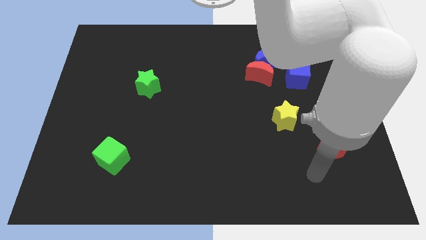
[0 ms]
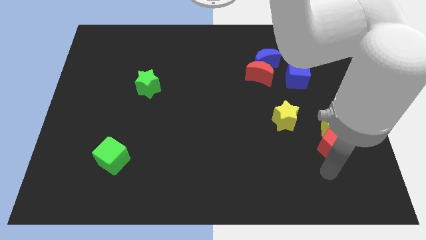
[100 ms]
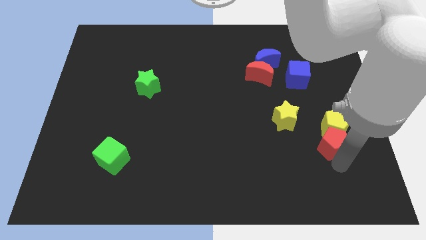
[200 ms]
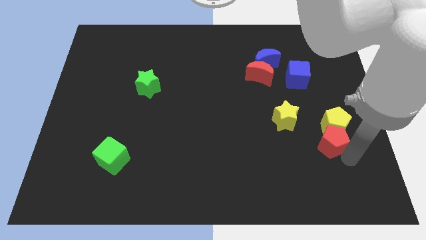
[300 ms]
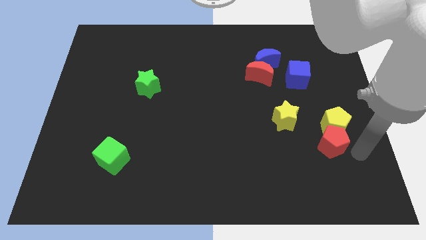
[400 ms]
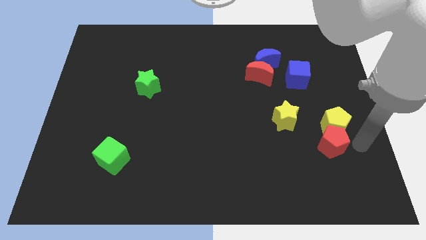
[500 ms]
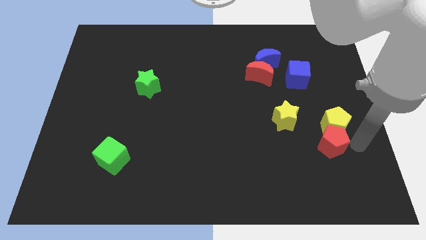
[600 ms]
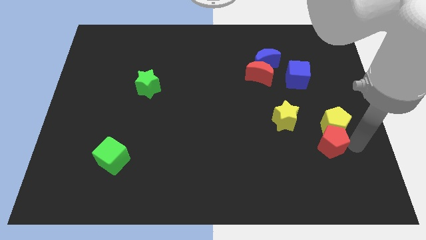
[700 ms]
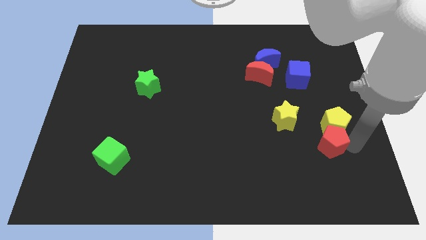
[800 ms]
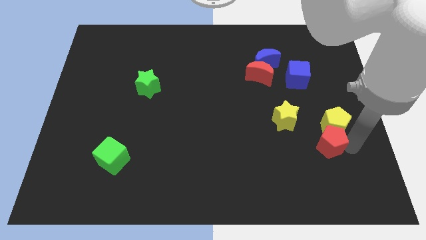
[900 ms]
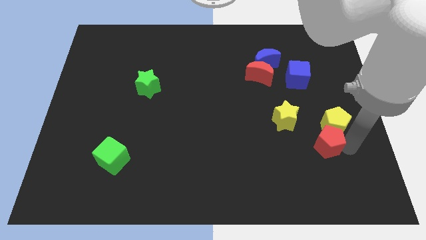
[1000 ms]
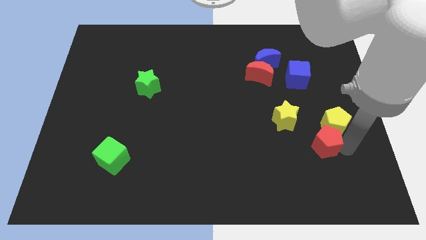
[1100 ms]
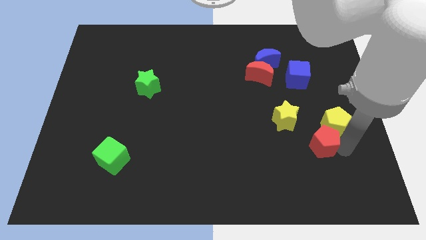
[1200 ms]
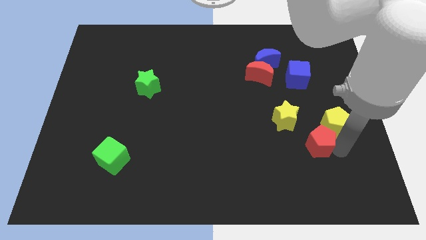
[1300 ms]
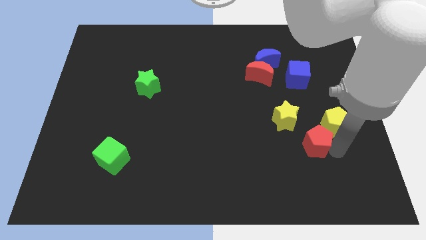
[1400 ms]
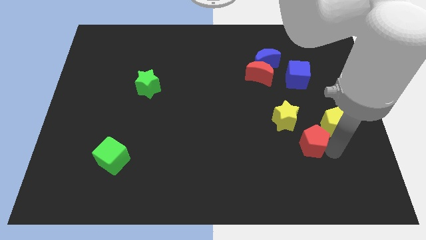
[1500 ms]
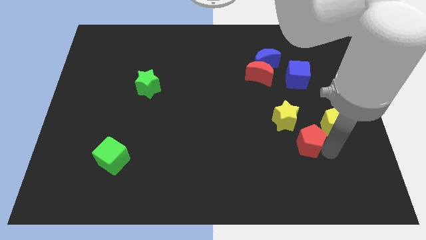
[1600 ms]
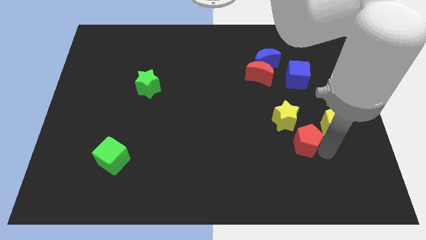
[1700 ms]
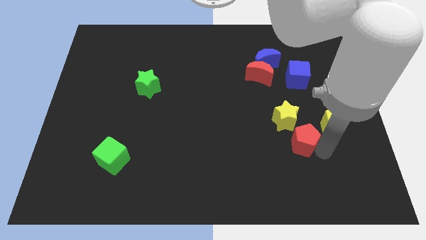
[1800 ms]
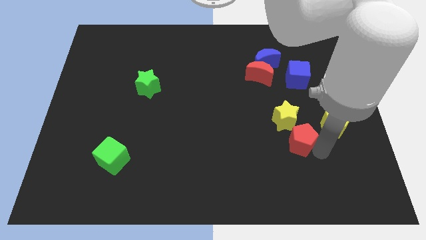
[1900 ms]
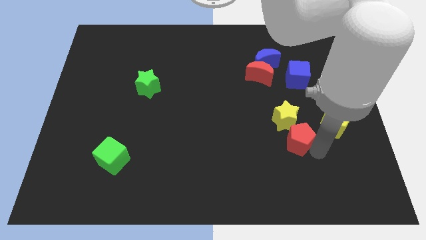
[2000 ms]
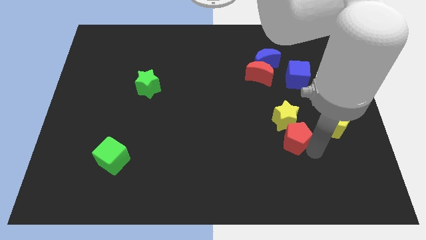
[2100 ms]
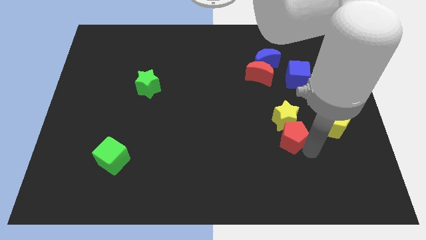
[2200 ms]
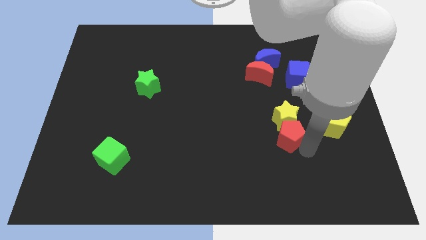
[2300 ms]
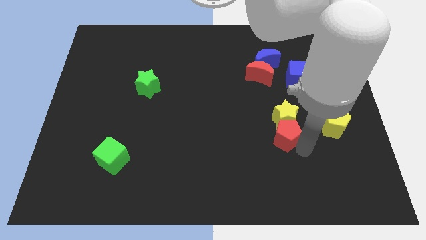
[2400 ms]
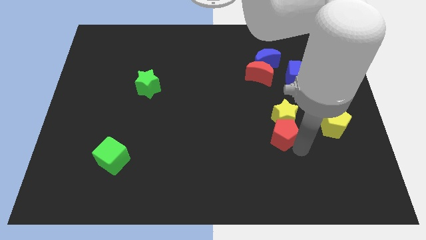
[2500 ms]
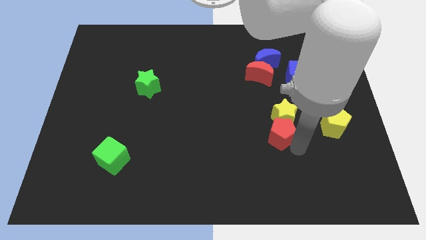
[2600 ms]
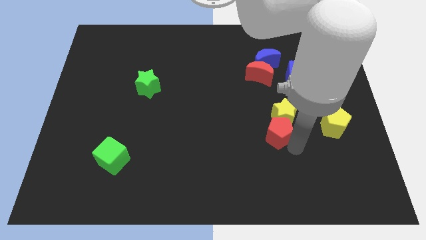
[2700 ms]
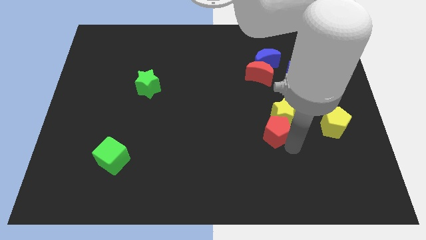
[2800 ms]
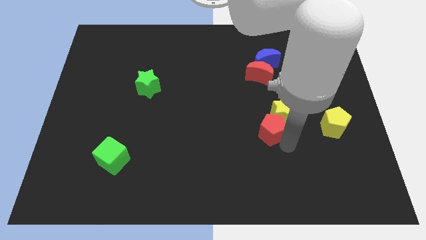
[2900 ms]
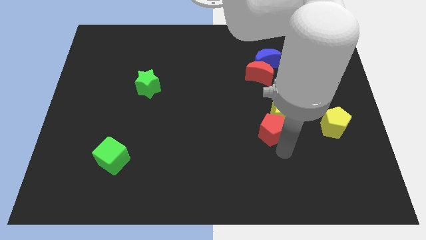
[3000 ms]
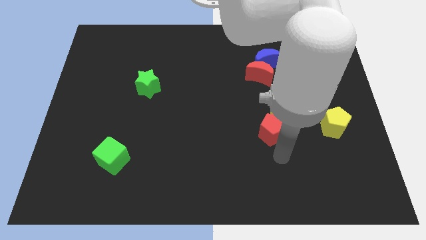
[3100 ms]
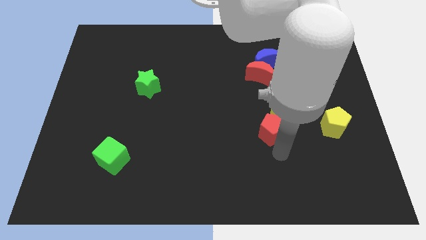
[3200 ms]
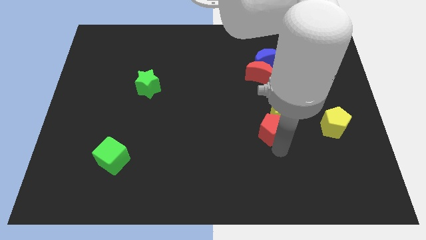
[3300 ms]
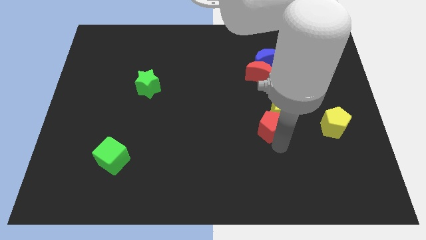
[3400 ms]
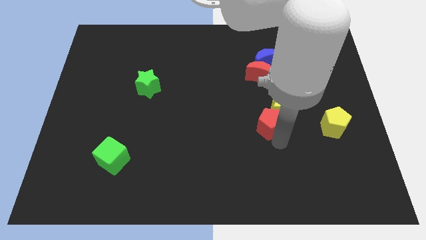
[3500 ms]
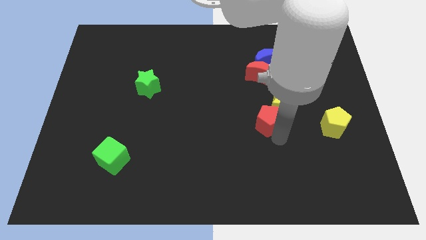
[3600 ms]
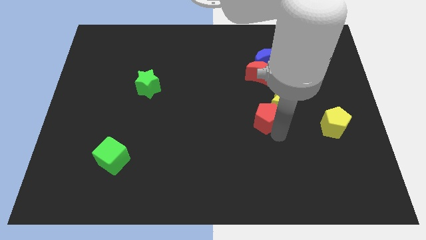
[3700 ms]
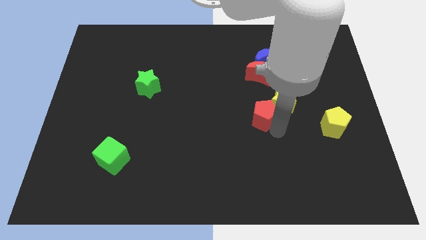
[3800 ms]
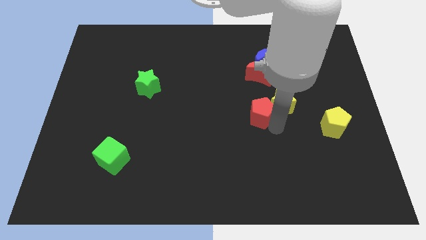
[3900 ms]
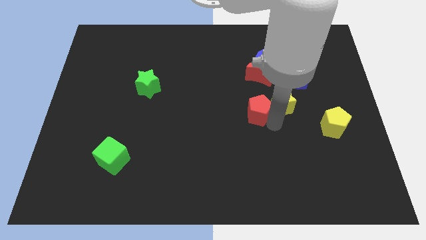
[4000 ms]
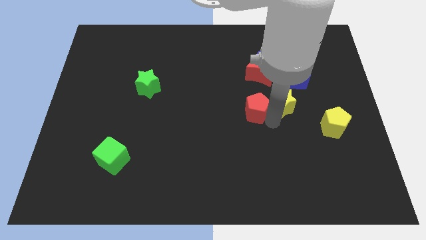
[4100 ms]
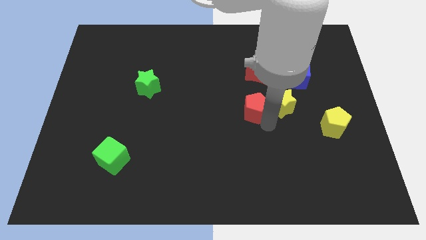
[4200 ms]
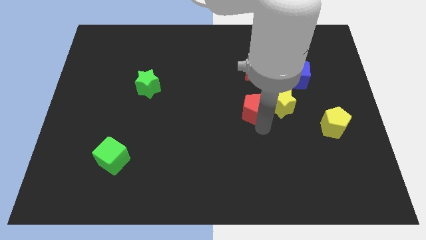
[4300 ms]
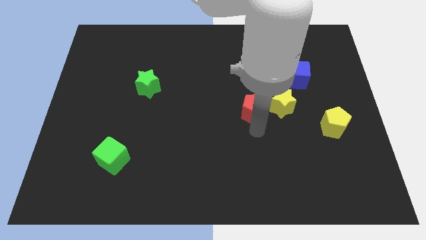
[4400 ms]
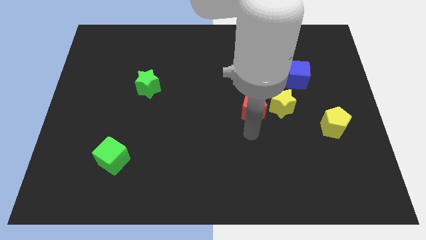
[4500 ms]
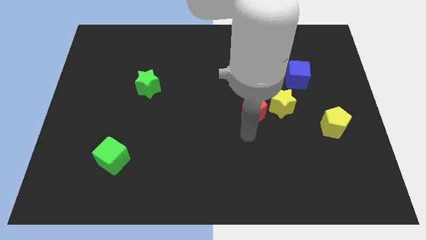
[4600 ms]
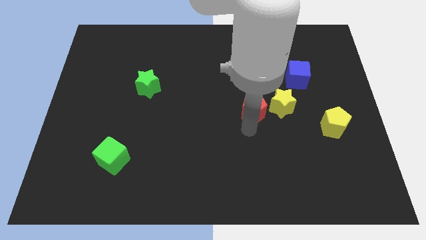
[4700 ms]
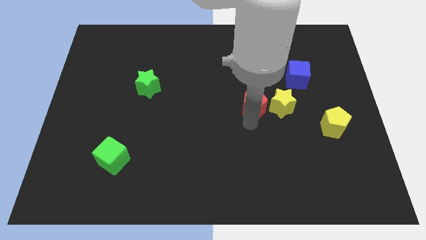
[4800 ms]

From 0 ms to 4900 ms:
move the red pentagon to the top left of the yellow star

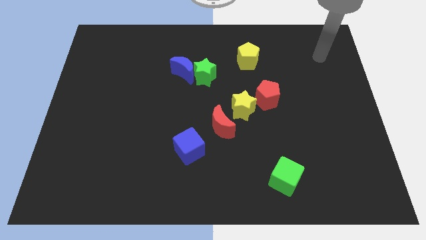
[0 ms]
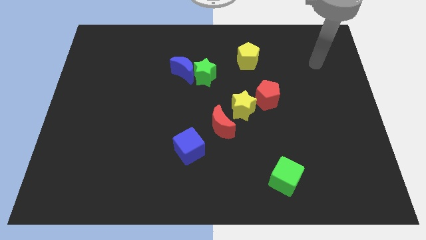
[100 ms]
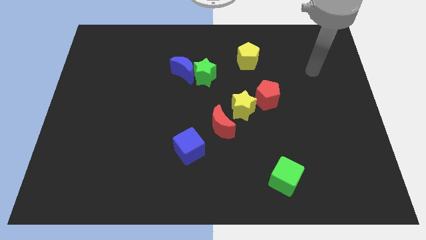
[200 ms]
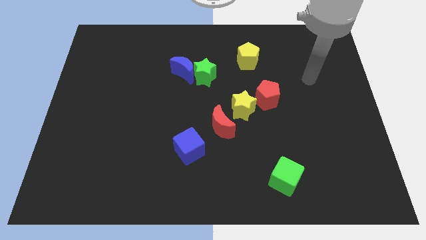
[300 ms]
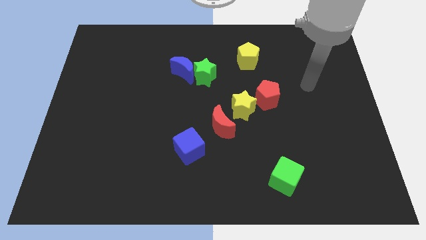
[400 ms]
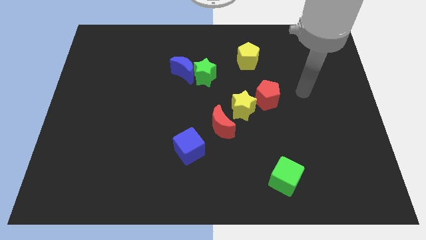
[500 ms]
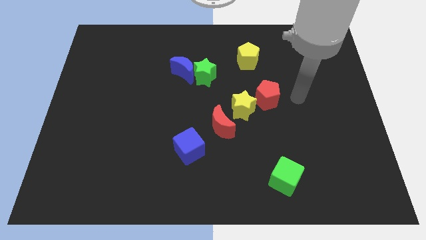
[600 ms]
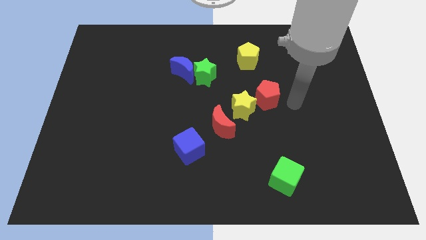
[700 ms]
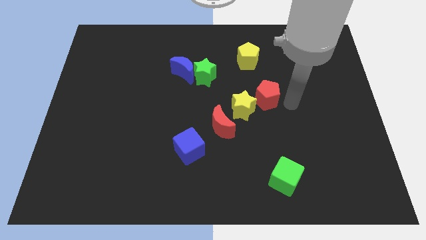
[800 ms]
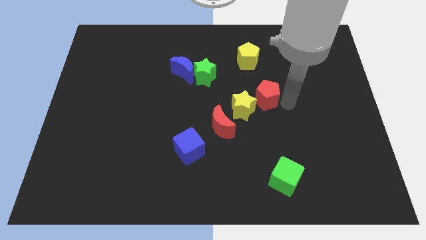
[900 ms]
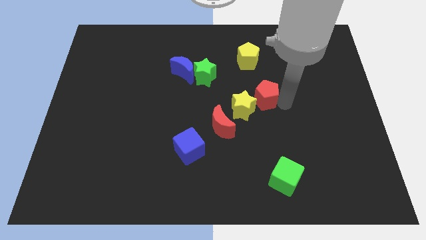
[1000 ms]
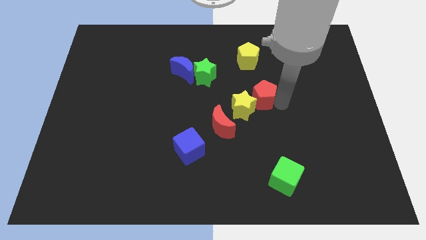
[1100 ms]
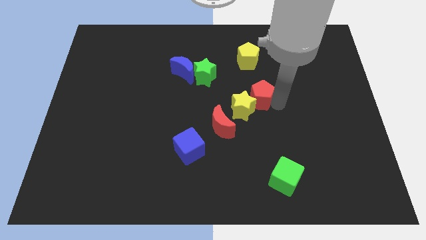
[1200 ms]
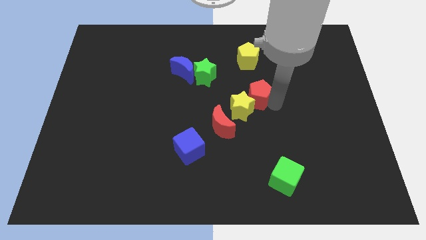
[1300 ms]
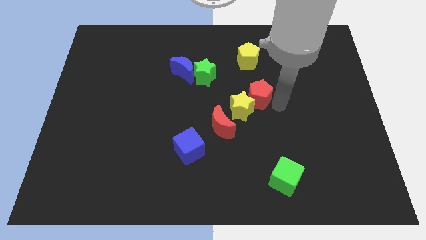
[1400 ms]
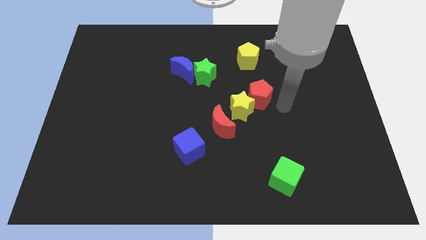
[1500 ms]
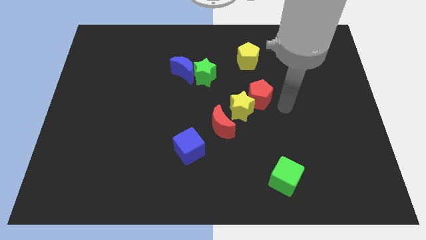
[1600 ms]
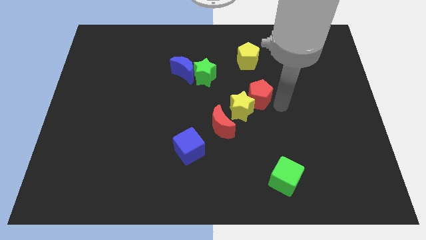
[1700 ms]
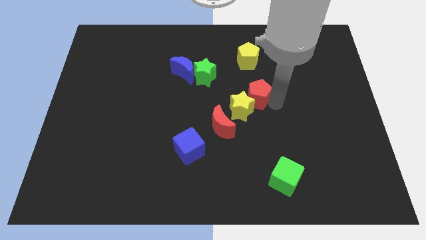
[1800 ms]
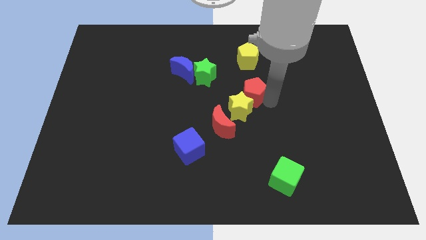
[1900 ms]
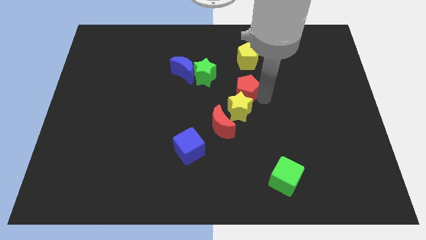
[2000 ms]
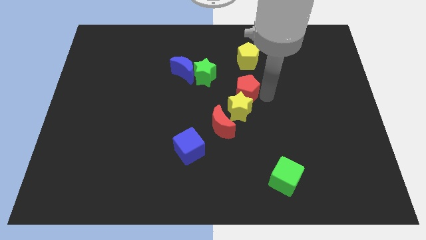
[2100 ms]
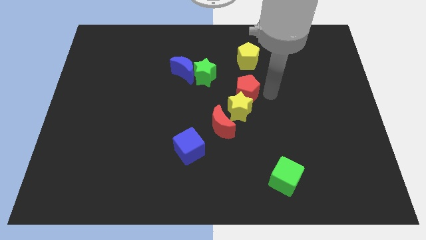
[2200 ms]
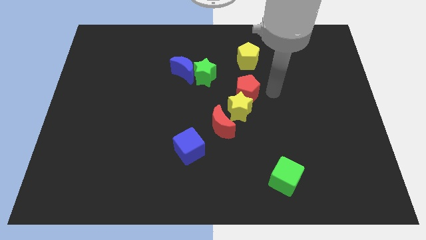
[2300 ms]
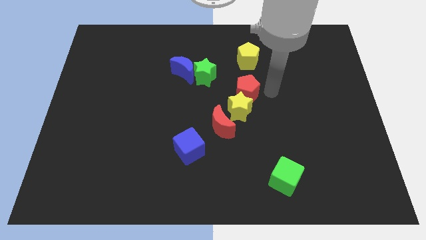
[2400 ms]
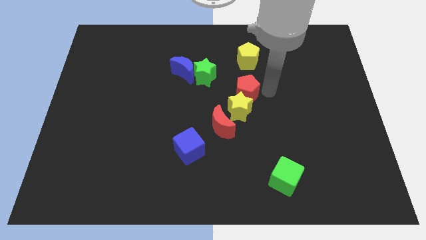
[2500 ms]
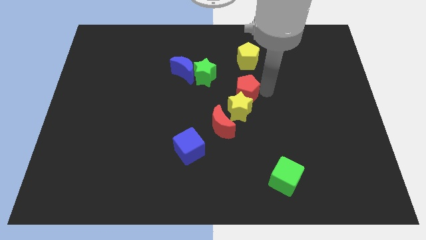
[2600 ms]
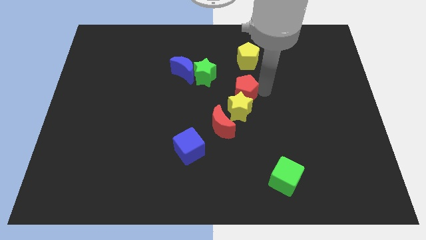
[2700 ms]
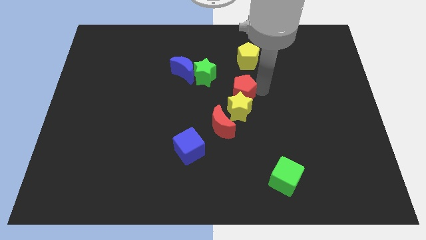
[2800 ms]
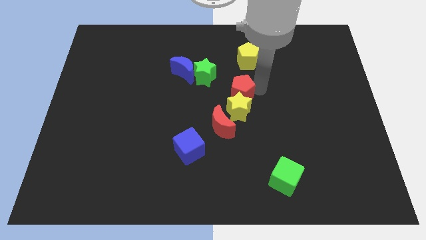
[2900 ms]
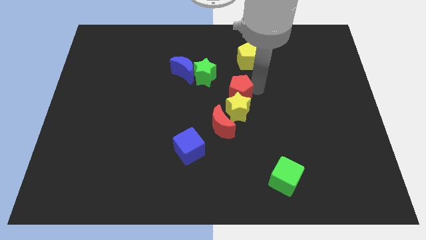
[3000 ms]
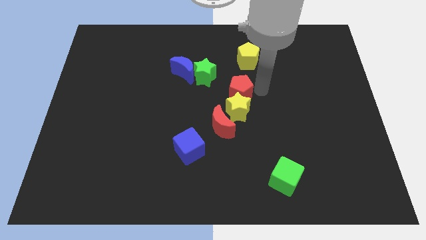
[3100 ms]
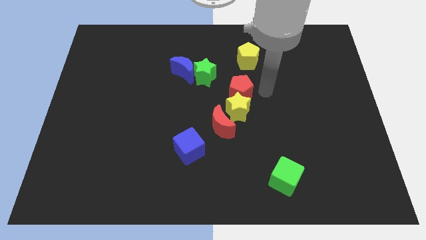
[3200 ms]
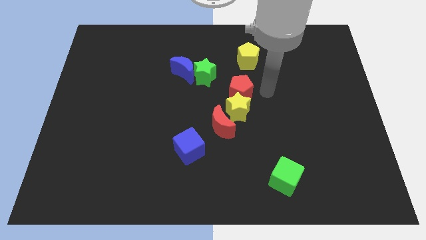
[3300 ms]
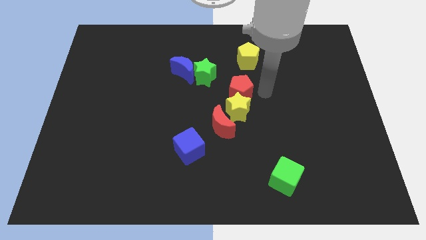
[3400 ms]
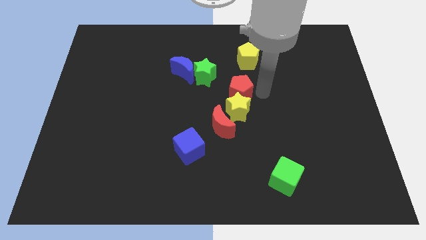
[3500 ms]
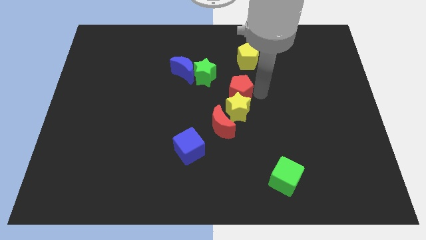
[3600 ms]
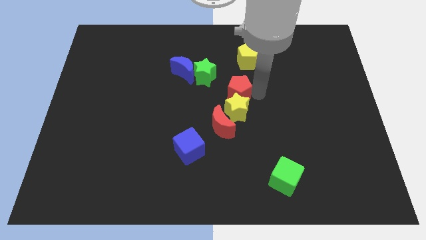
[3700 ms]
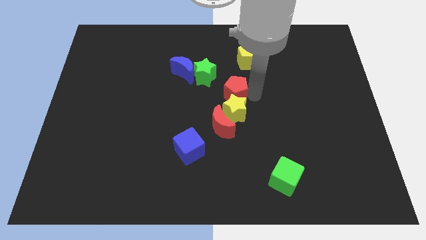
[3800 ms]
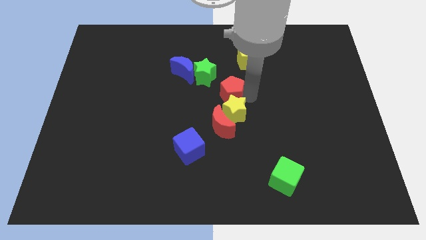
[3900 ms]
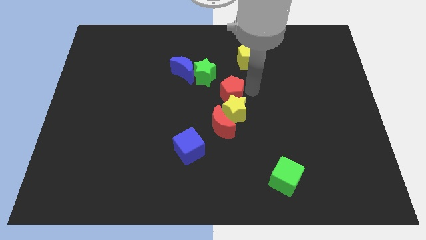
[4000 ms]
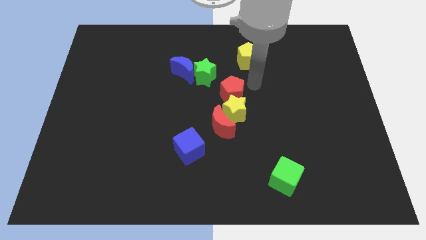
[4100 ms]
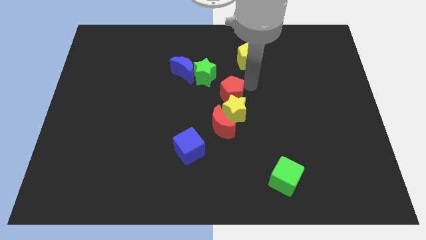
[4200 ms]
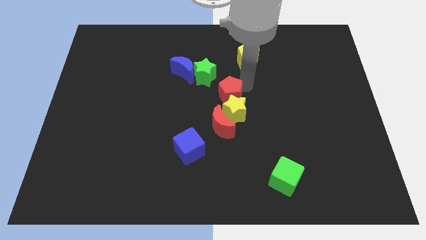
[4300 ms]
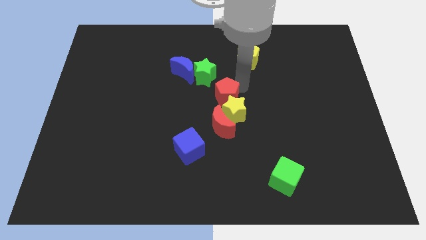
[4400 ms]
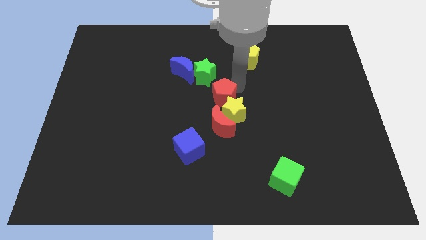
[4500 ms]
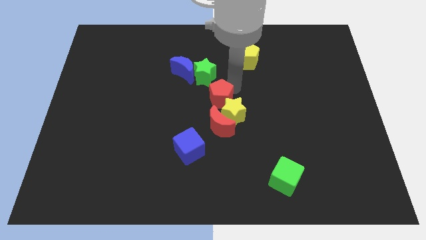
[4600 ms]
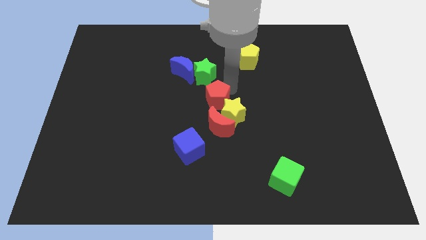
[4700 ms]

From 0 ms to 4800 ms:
put the red pentagon just left of the yellow star
